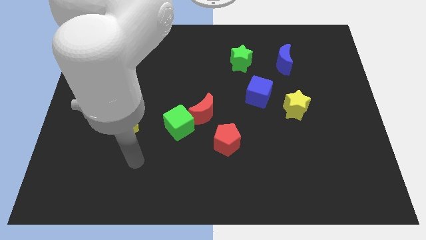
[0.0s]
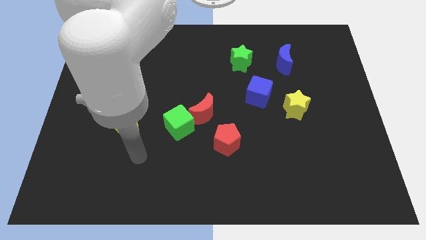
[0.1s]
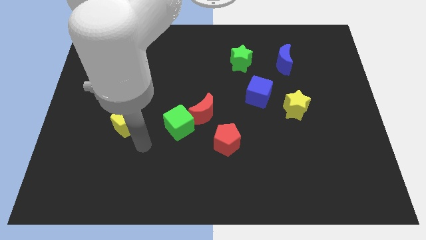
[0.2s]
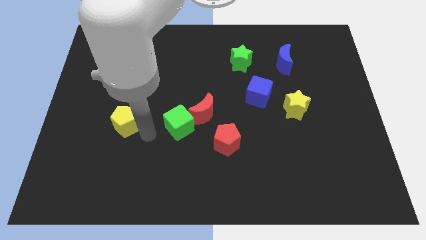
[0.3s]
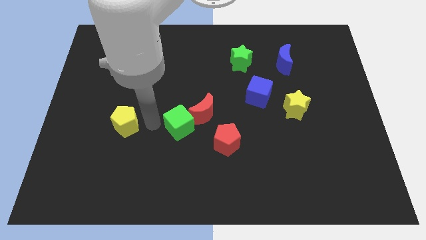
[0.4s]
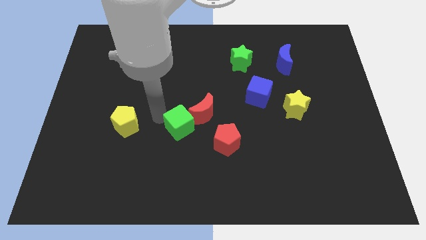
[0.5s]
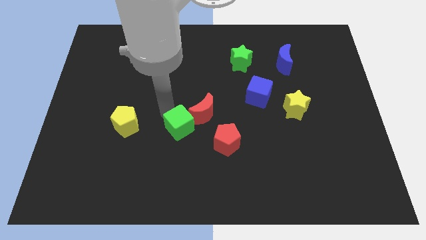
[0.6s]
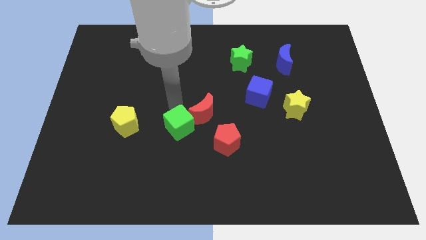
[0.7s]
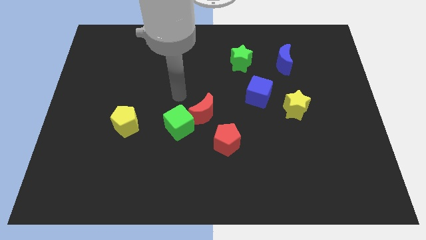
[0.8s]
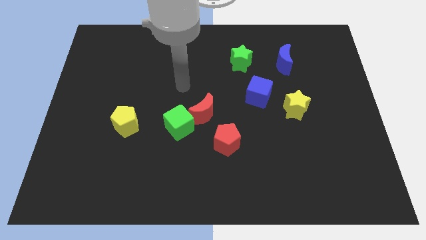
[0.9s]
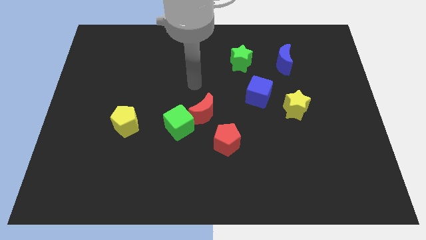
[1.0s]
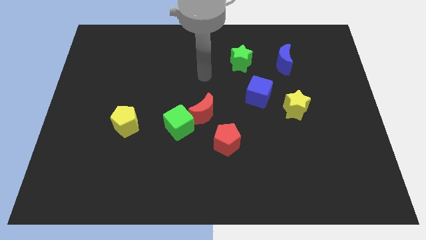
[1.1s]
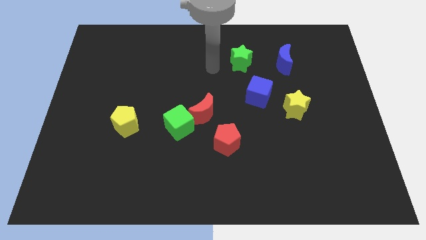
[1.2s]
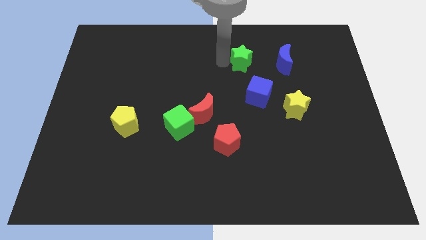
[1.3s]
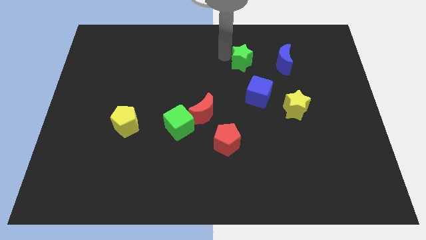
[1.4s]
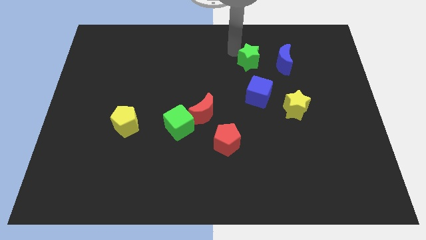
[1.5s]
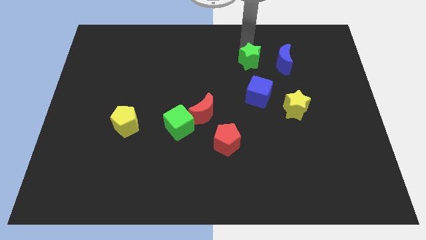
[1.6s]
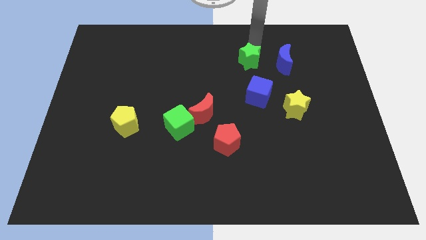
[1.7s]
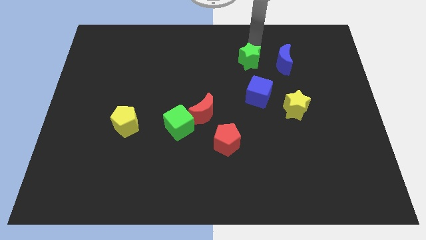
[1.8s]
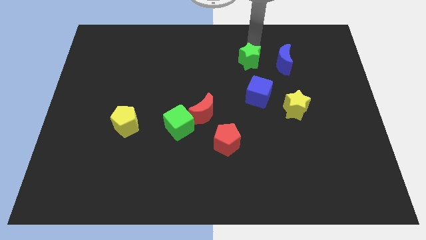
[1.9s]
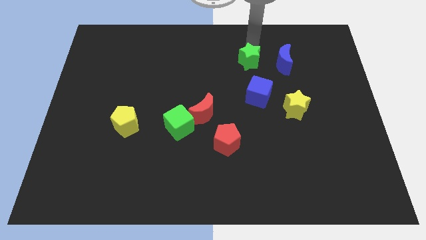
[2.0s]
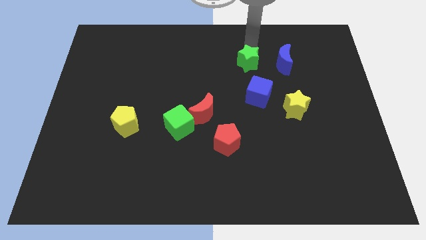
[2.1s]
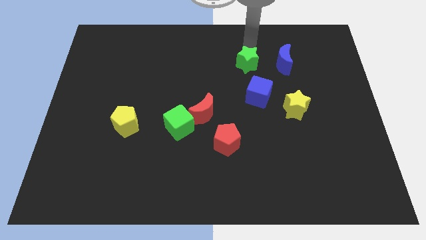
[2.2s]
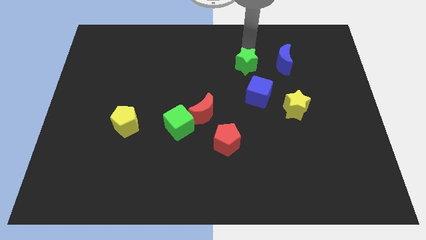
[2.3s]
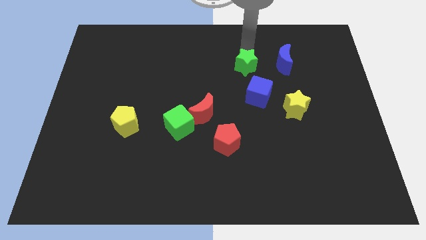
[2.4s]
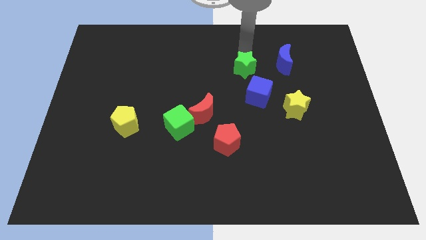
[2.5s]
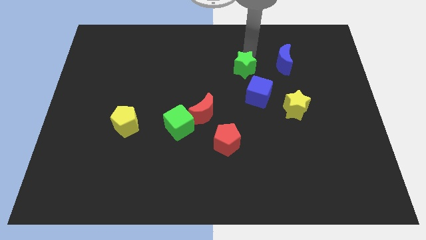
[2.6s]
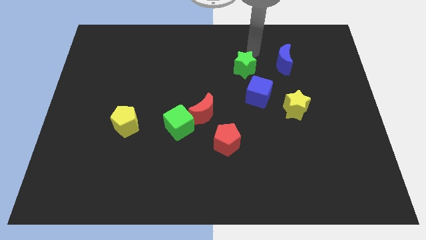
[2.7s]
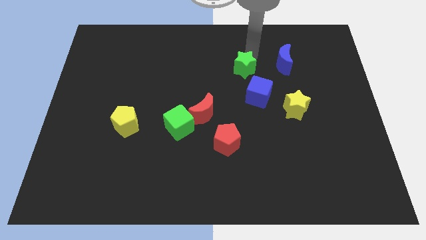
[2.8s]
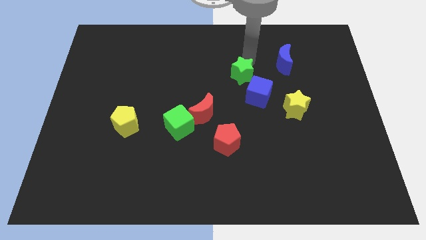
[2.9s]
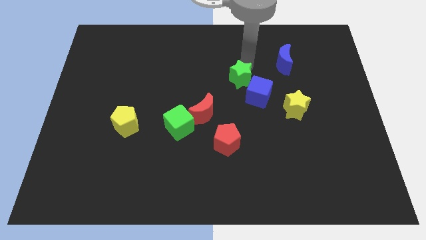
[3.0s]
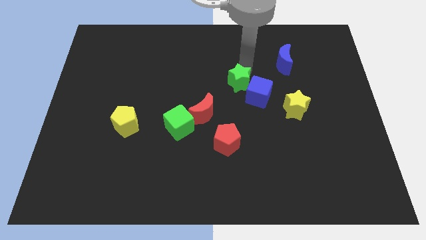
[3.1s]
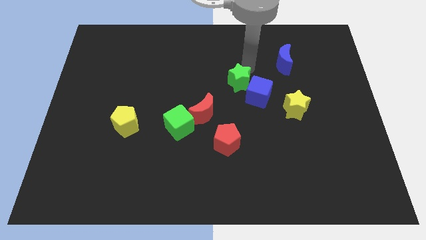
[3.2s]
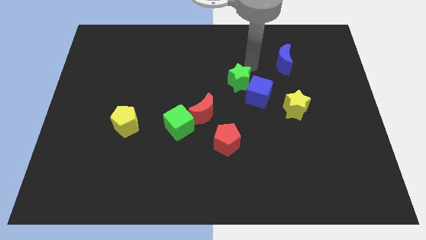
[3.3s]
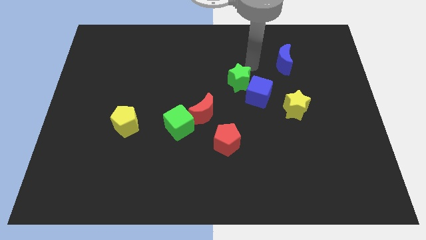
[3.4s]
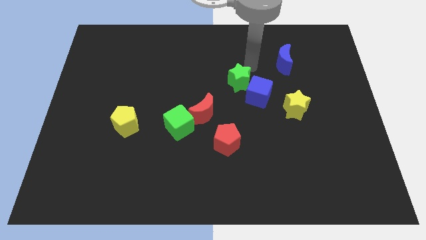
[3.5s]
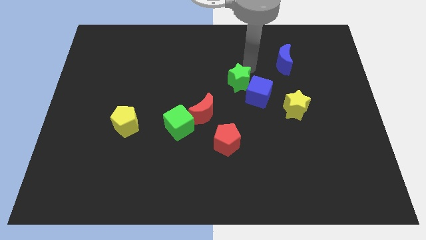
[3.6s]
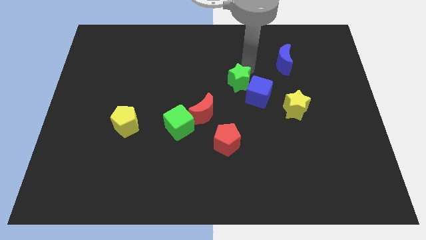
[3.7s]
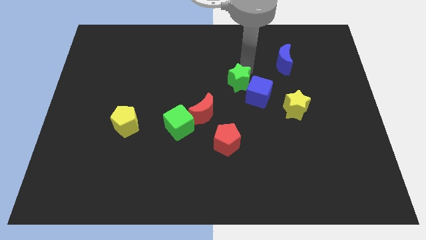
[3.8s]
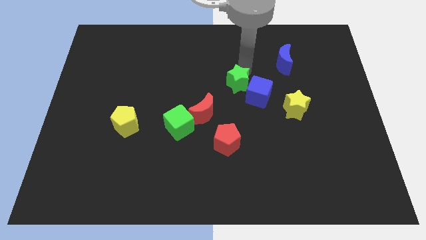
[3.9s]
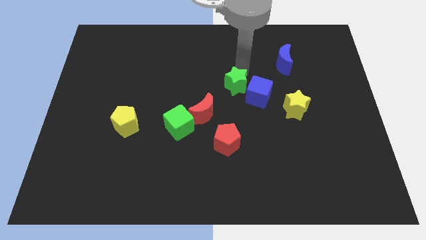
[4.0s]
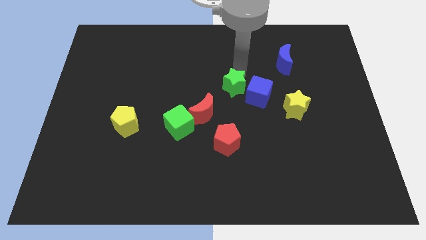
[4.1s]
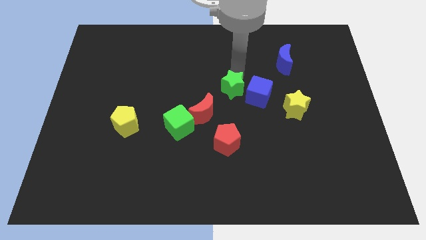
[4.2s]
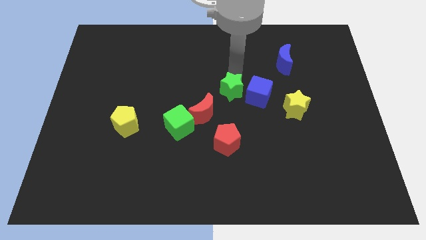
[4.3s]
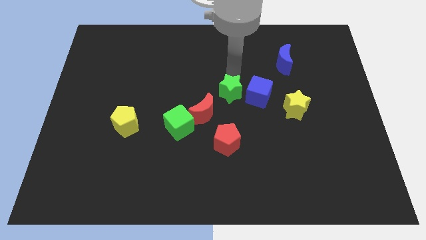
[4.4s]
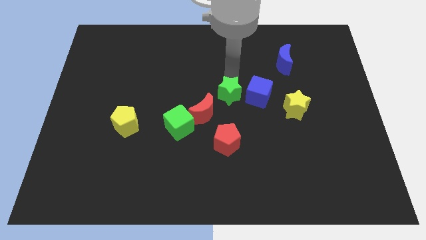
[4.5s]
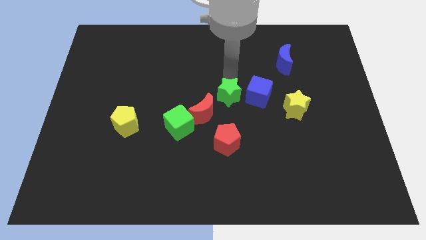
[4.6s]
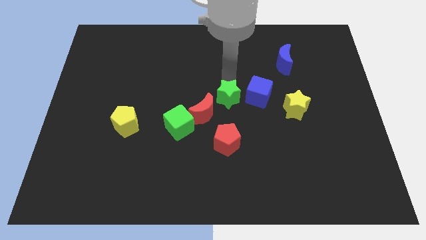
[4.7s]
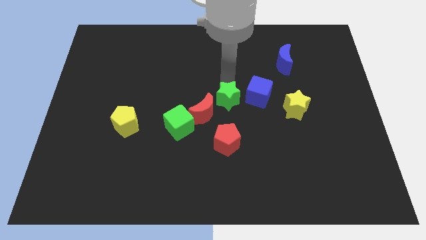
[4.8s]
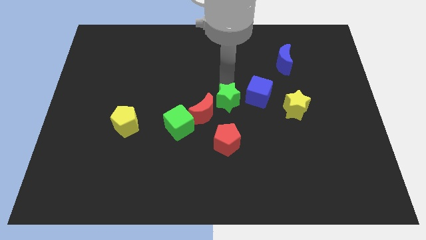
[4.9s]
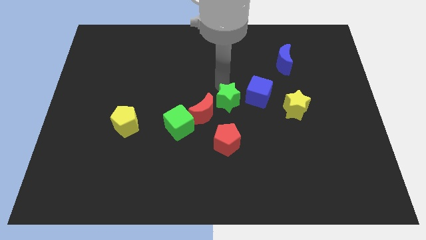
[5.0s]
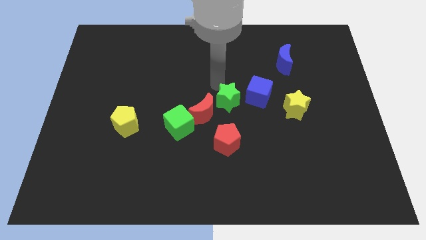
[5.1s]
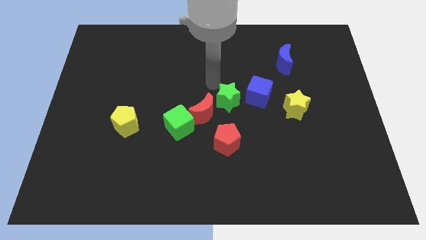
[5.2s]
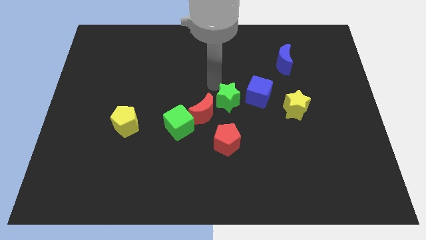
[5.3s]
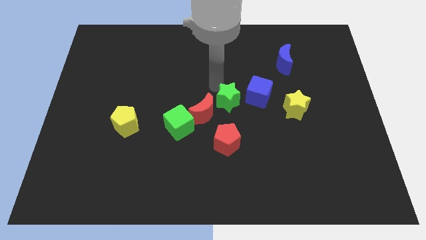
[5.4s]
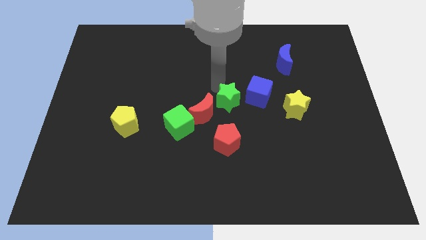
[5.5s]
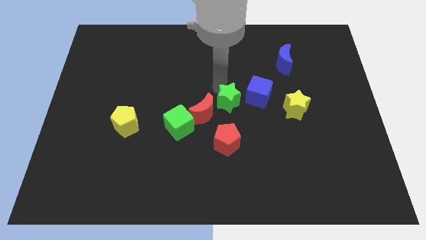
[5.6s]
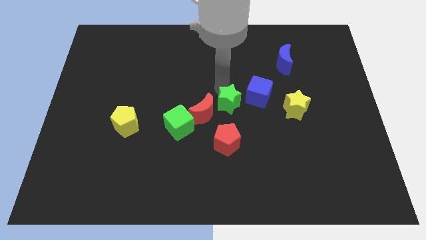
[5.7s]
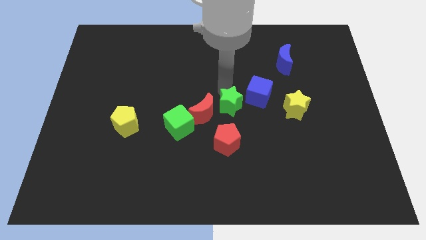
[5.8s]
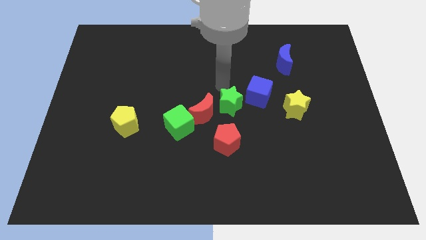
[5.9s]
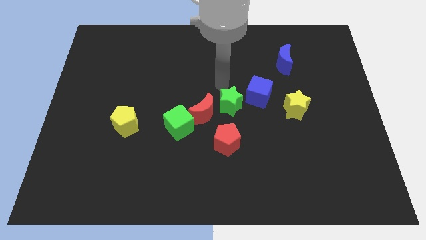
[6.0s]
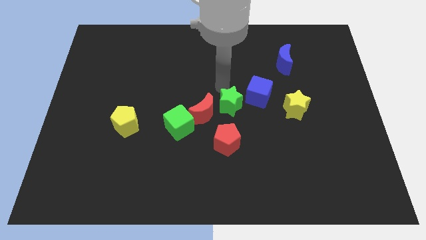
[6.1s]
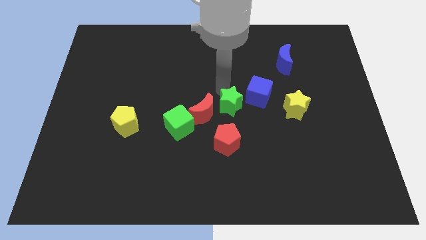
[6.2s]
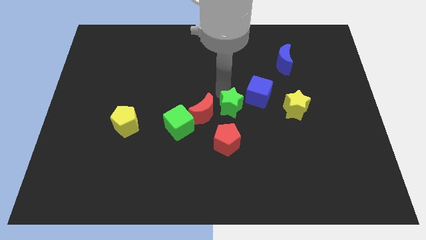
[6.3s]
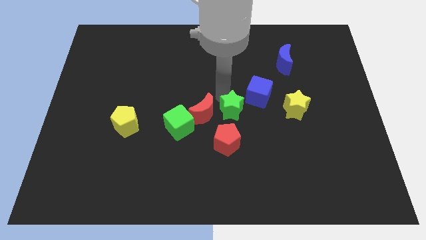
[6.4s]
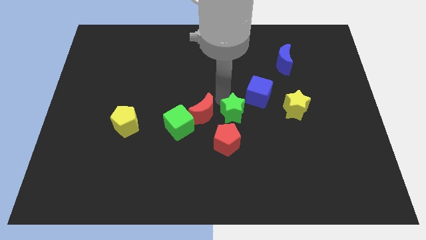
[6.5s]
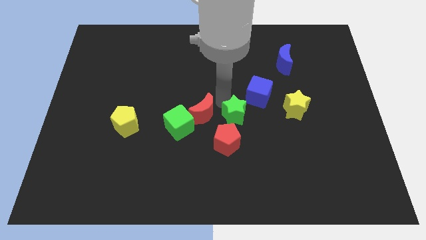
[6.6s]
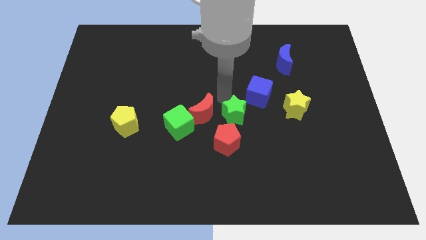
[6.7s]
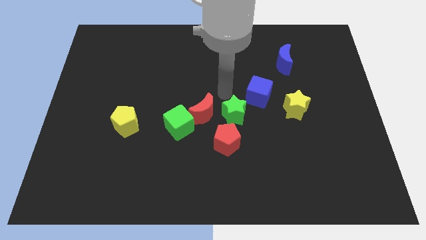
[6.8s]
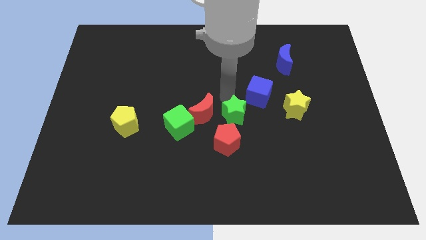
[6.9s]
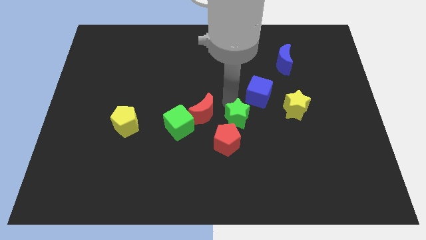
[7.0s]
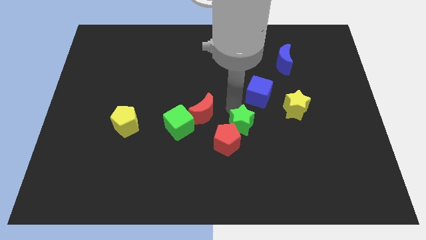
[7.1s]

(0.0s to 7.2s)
slide the green star downwards

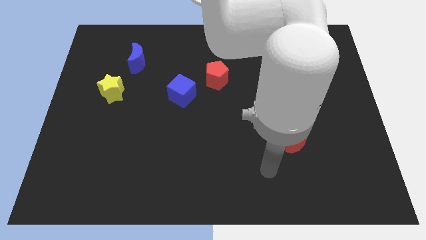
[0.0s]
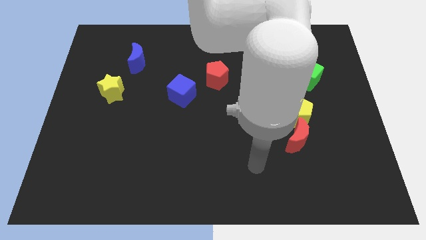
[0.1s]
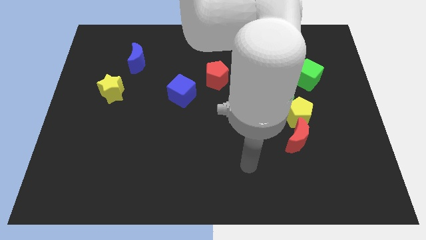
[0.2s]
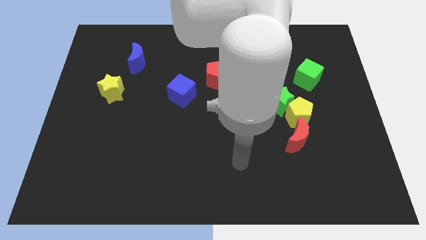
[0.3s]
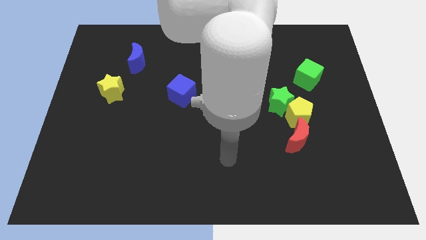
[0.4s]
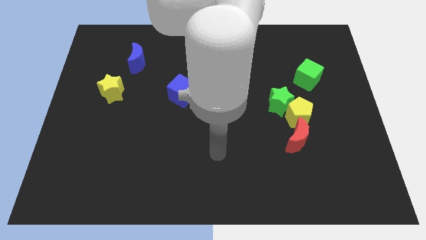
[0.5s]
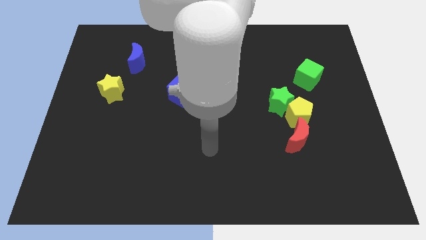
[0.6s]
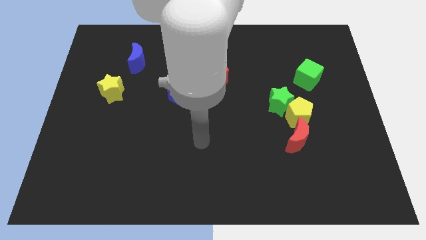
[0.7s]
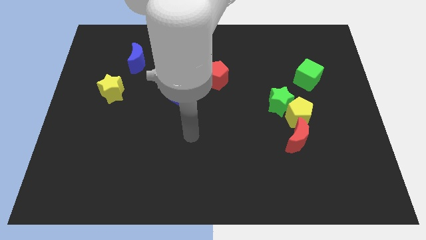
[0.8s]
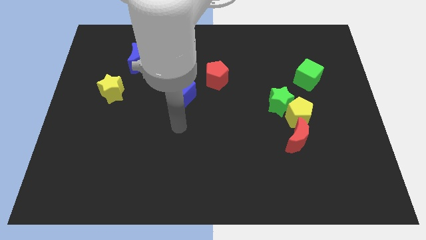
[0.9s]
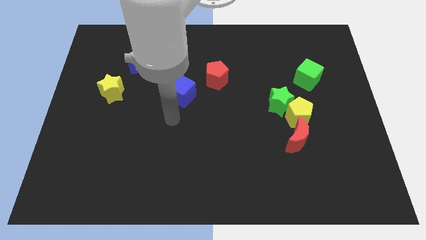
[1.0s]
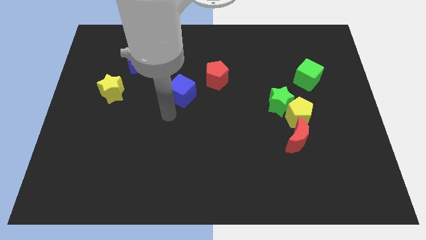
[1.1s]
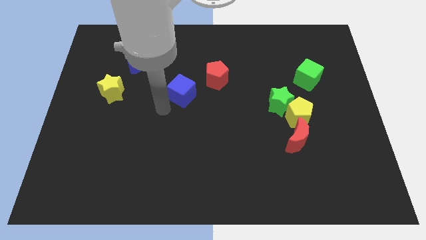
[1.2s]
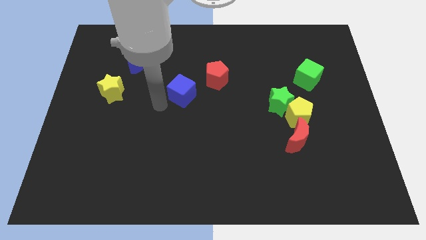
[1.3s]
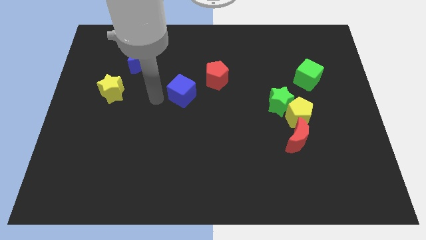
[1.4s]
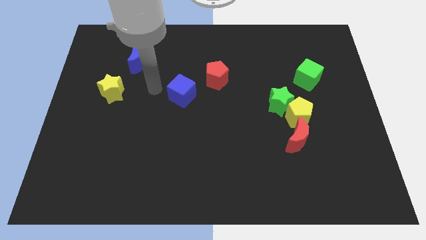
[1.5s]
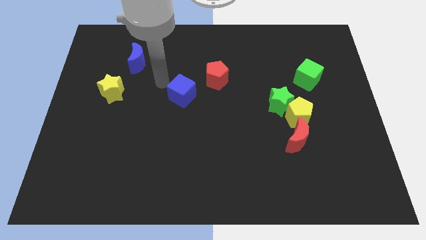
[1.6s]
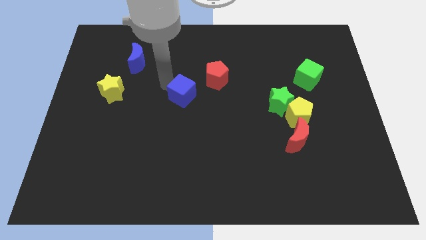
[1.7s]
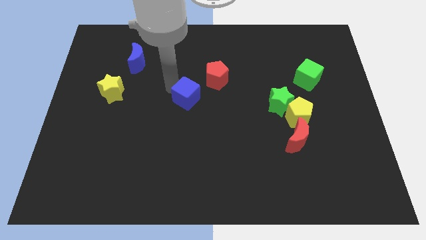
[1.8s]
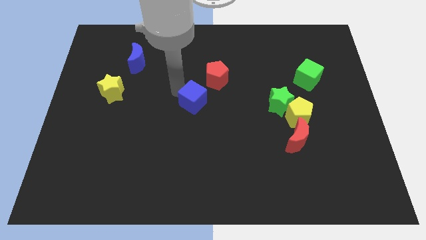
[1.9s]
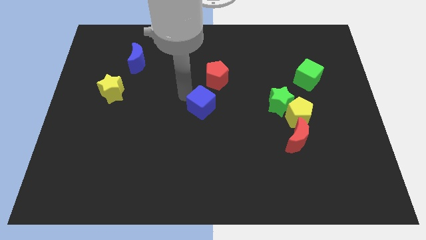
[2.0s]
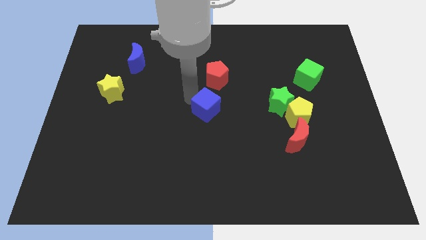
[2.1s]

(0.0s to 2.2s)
slightly push the blue cube downwards and right
